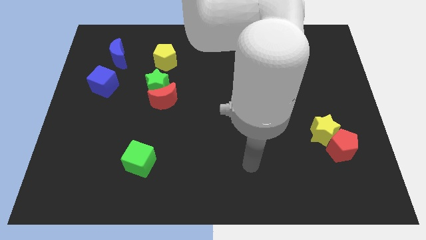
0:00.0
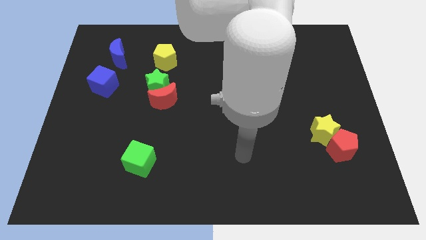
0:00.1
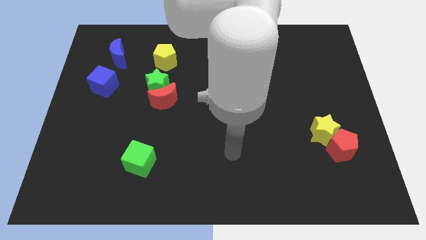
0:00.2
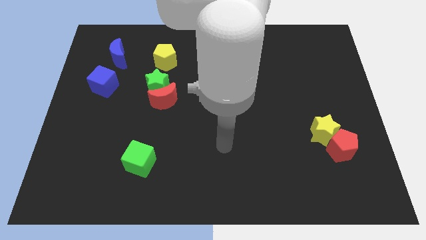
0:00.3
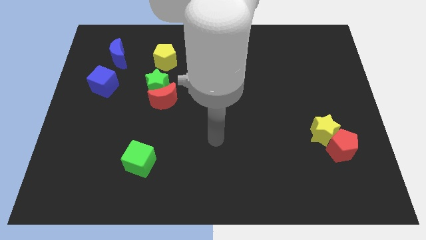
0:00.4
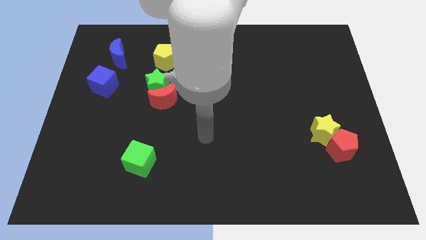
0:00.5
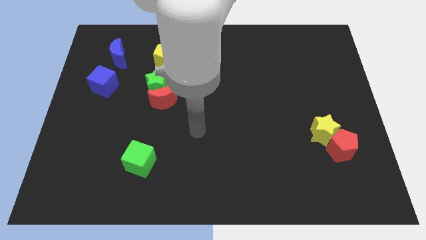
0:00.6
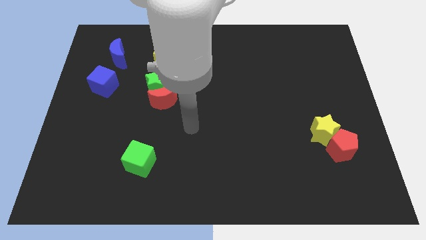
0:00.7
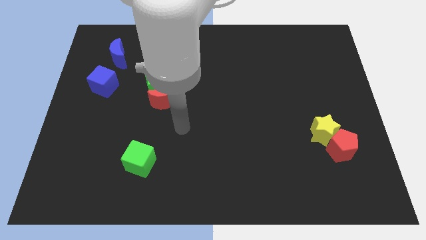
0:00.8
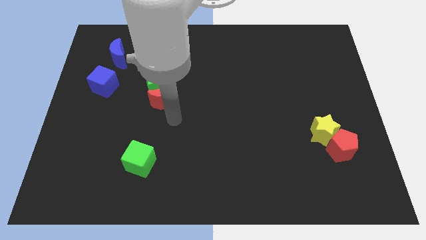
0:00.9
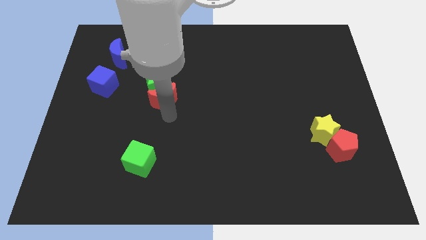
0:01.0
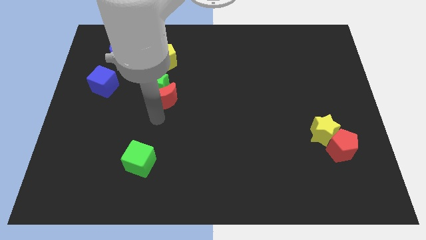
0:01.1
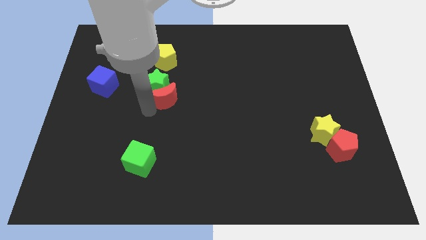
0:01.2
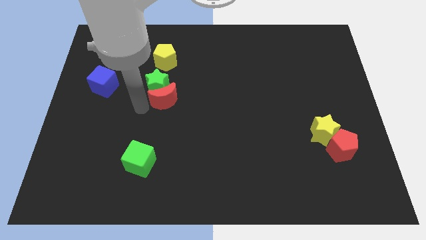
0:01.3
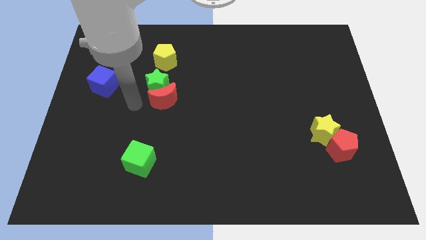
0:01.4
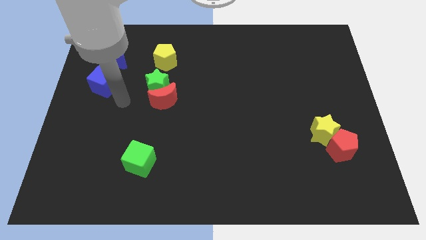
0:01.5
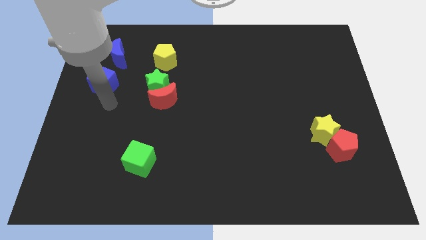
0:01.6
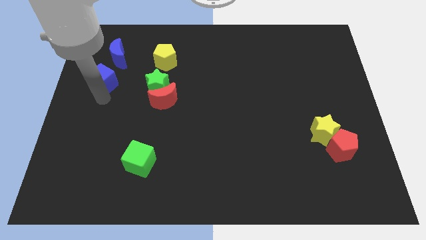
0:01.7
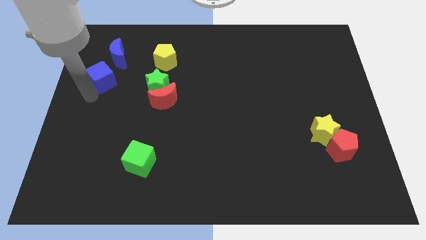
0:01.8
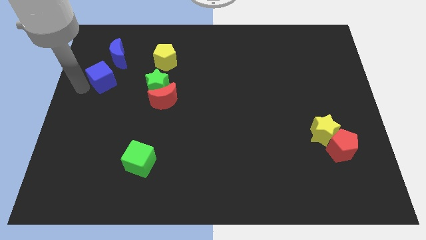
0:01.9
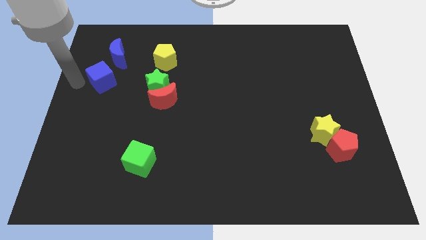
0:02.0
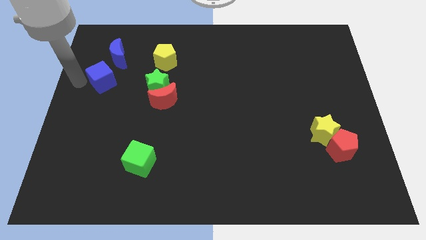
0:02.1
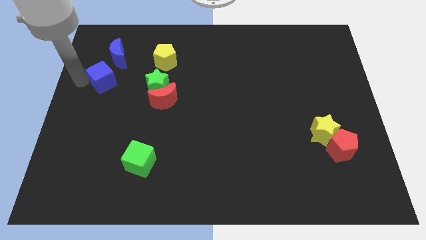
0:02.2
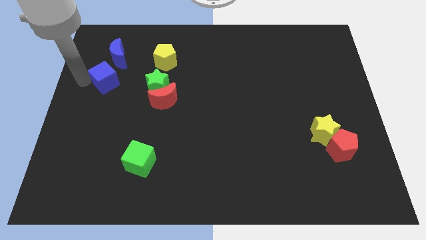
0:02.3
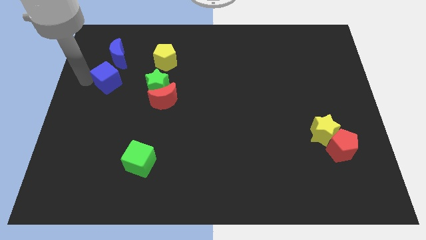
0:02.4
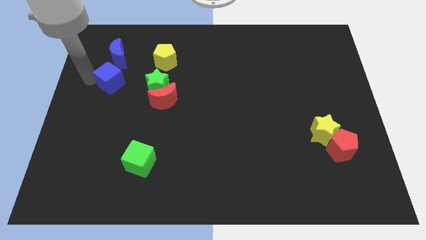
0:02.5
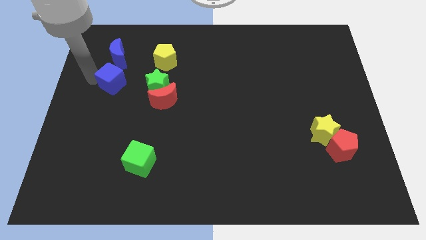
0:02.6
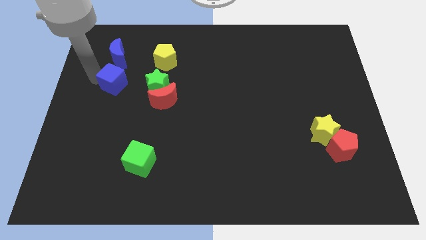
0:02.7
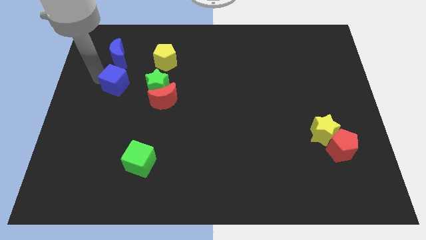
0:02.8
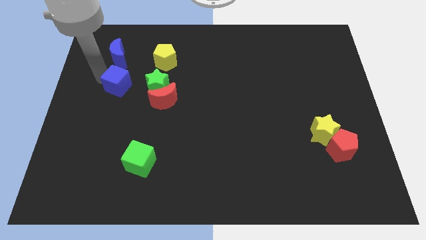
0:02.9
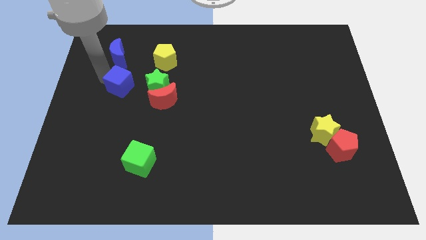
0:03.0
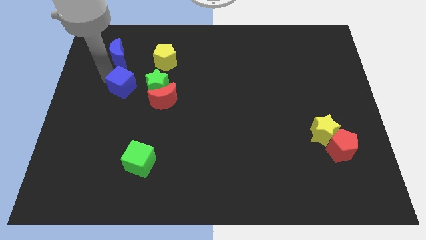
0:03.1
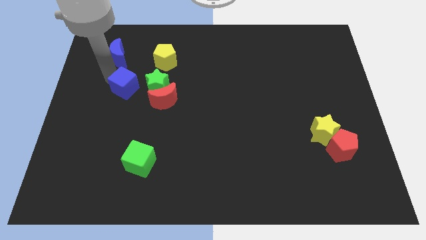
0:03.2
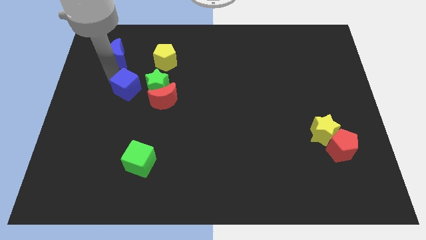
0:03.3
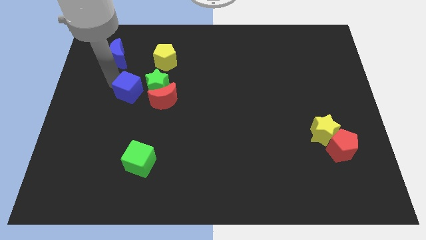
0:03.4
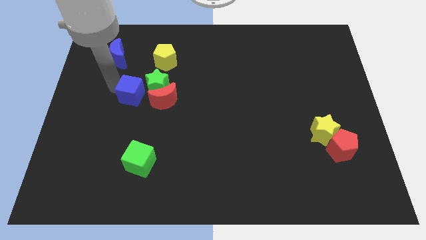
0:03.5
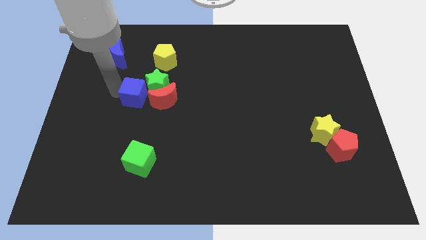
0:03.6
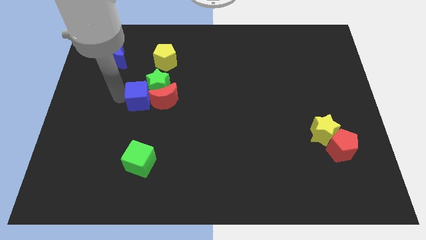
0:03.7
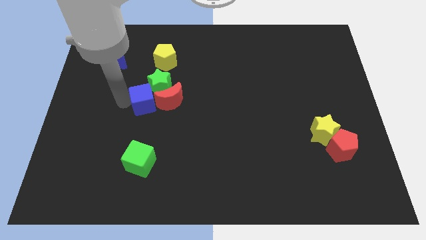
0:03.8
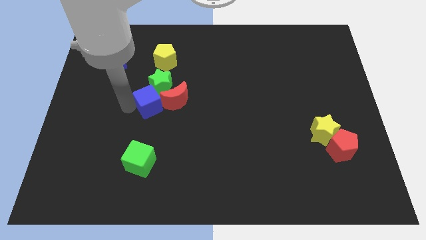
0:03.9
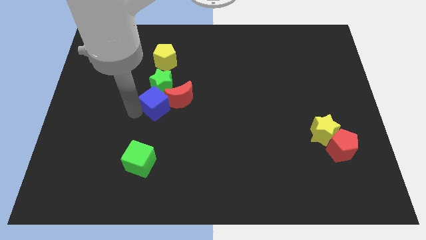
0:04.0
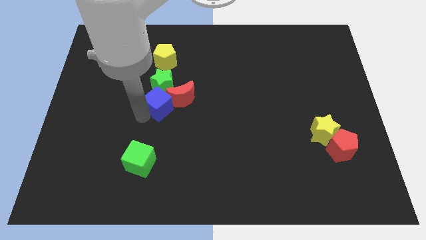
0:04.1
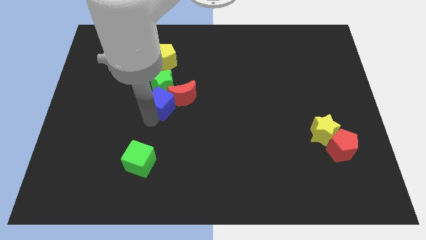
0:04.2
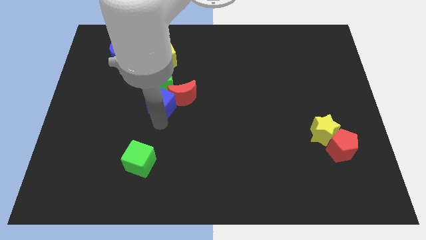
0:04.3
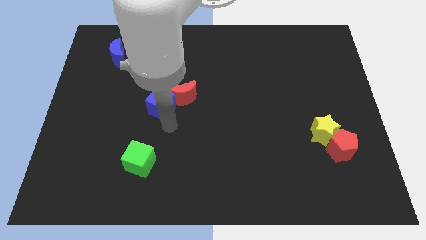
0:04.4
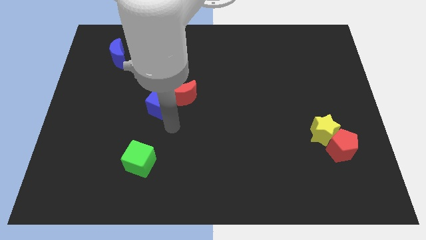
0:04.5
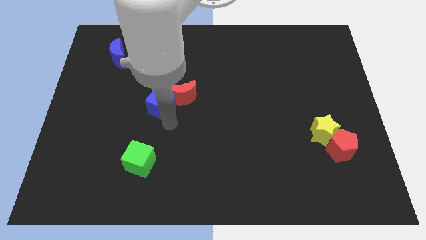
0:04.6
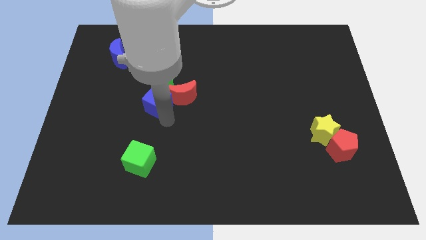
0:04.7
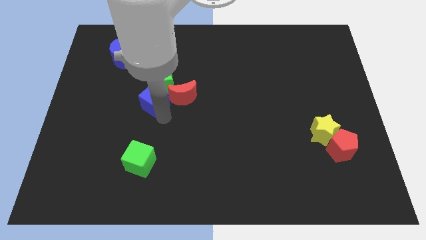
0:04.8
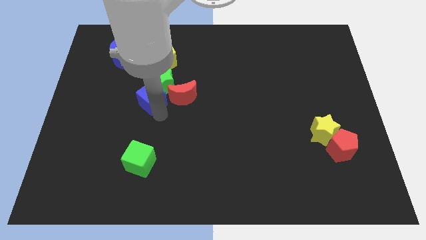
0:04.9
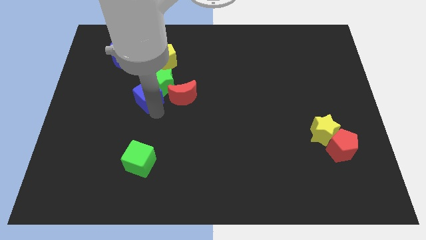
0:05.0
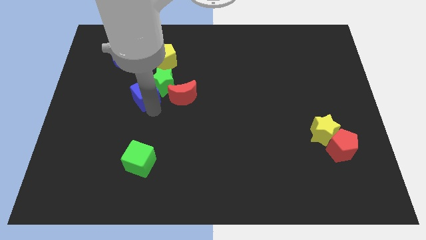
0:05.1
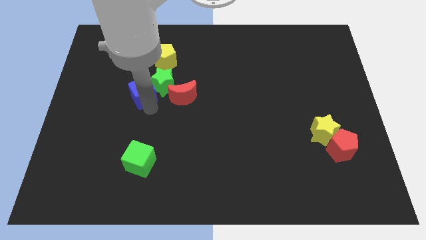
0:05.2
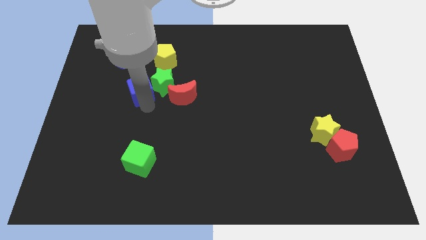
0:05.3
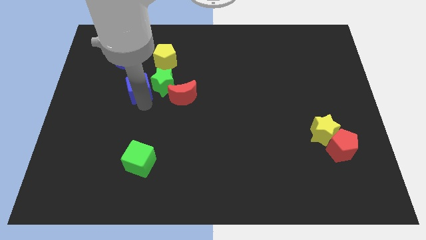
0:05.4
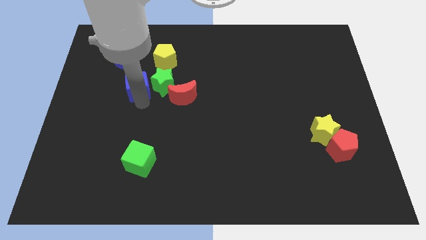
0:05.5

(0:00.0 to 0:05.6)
push the blue cube to the top left of the green star

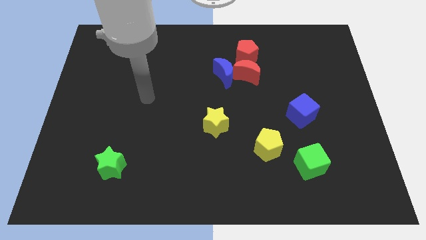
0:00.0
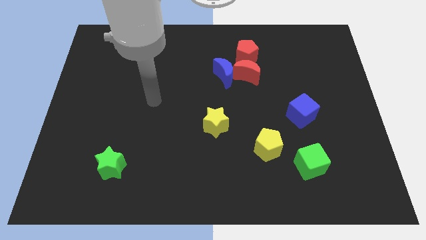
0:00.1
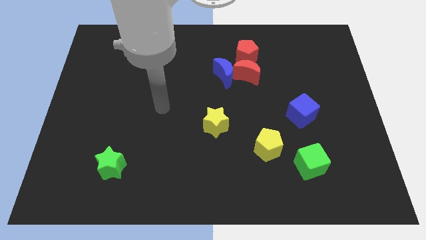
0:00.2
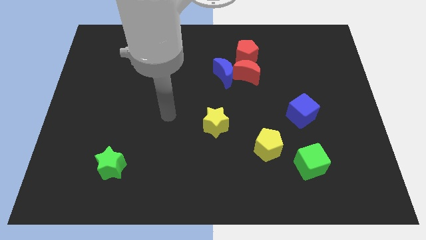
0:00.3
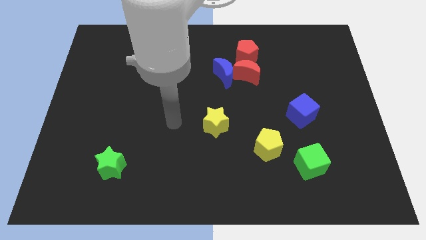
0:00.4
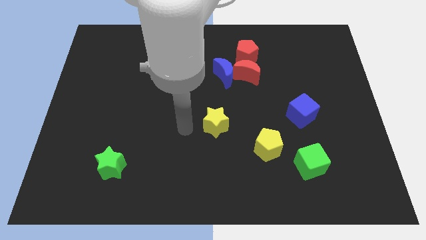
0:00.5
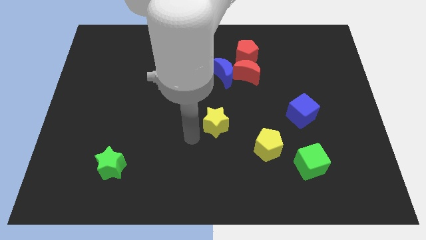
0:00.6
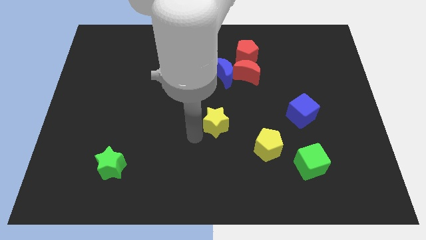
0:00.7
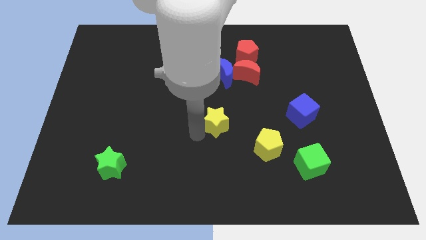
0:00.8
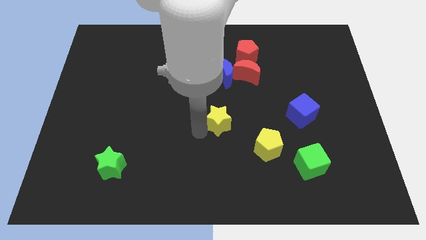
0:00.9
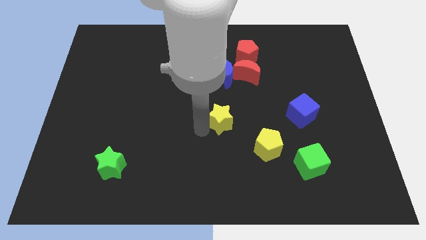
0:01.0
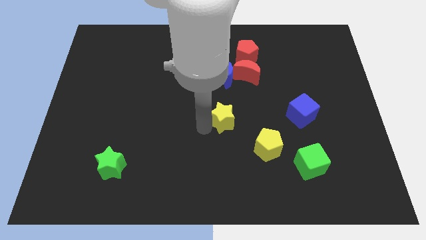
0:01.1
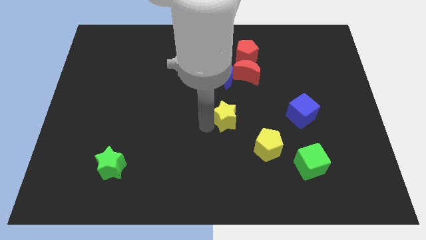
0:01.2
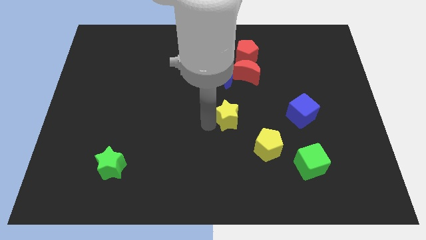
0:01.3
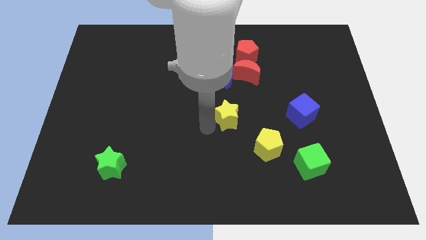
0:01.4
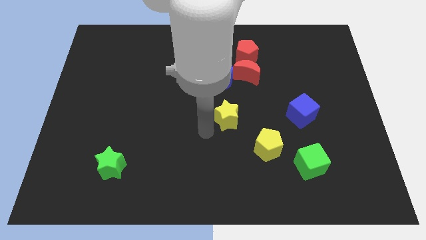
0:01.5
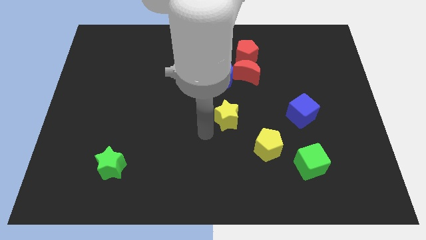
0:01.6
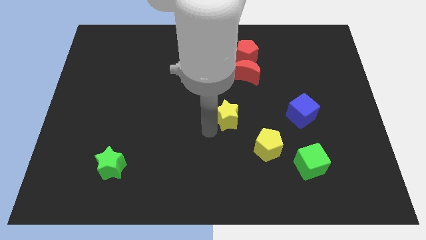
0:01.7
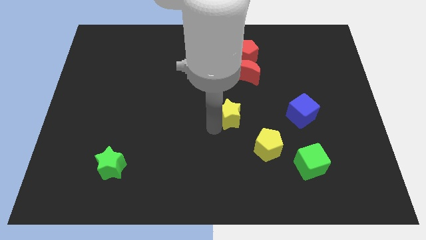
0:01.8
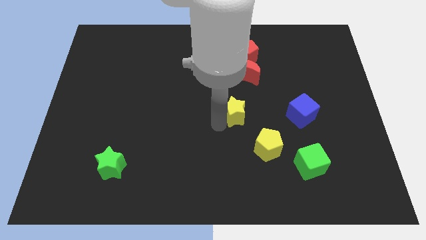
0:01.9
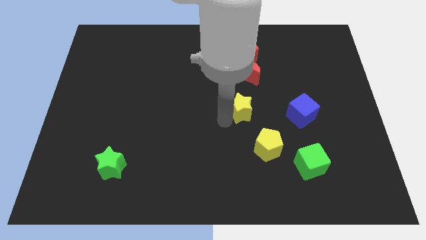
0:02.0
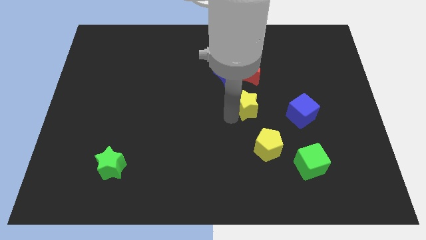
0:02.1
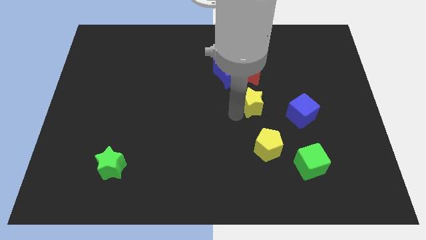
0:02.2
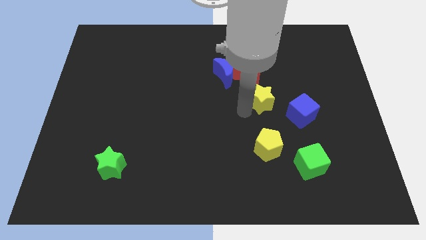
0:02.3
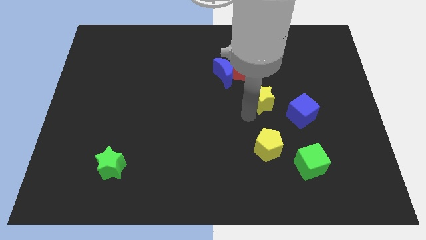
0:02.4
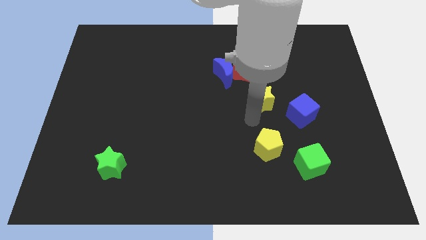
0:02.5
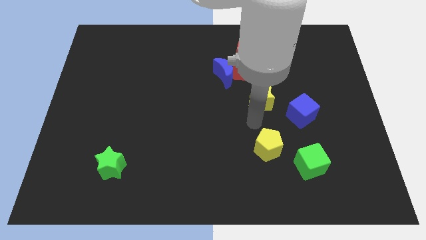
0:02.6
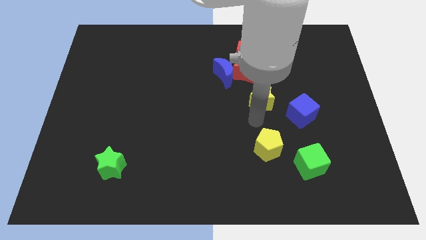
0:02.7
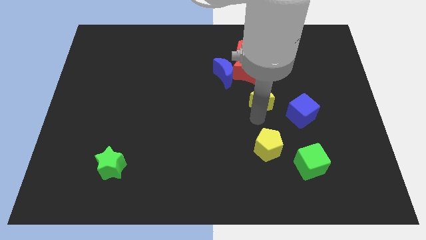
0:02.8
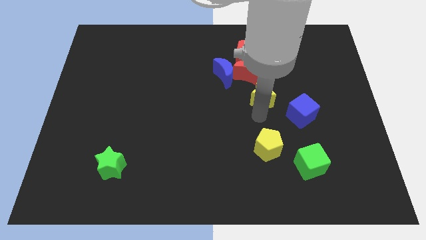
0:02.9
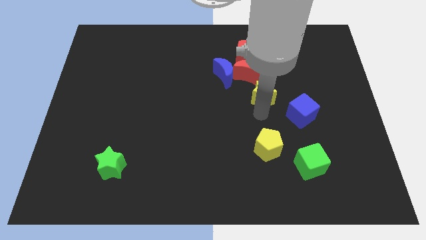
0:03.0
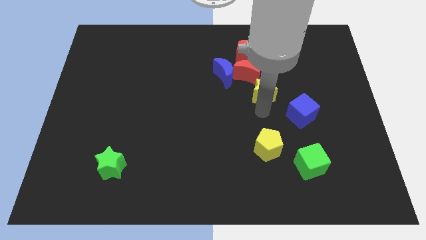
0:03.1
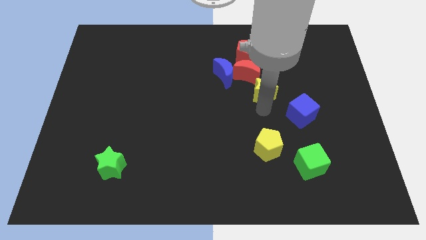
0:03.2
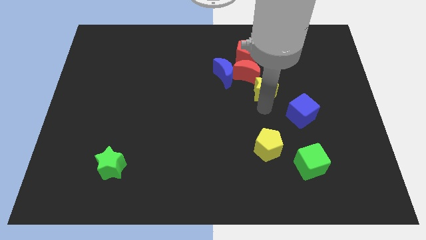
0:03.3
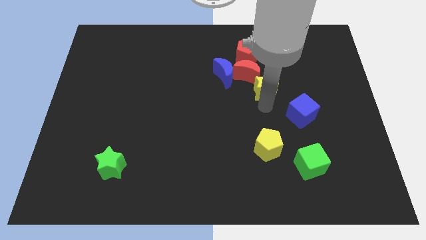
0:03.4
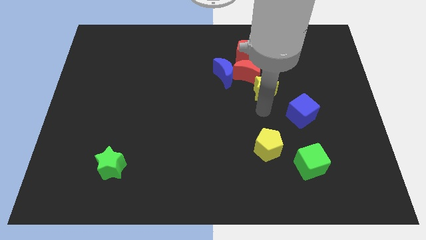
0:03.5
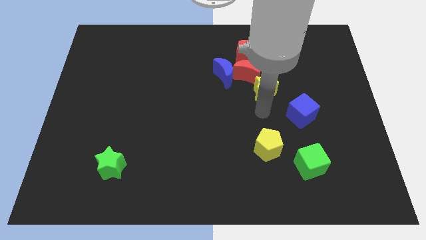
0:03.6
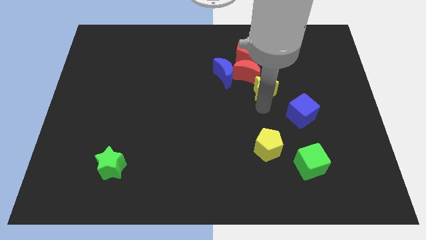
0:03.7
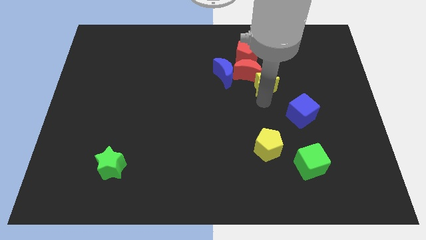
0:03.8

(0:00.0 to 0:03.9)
push the yellow star to the bottom right of the red pentagon
